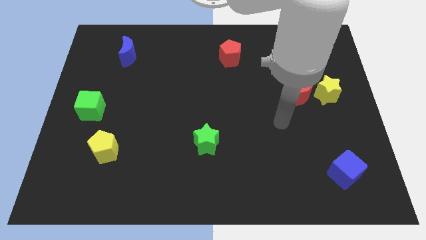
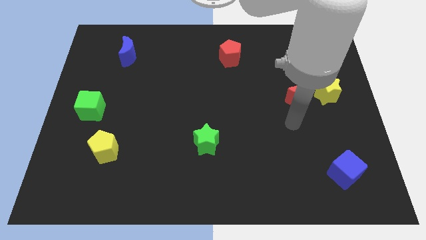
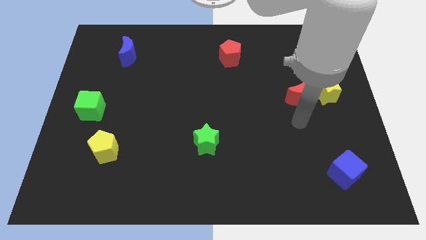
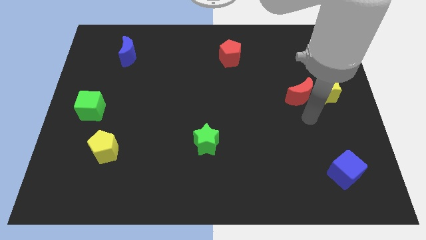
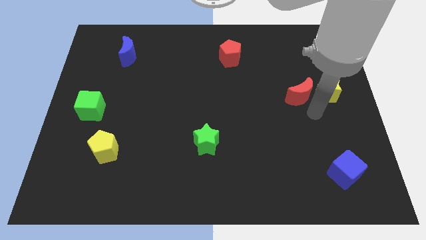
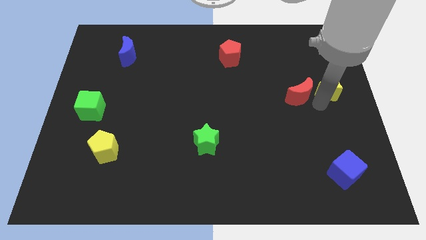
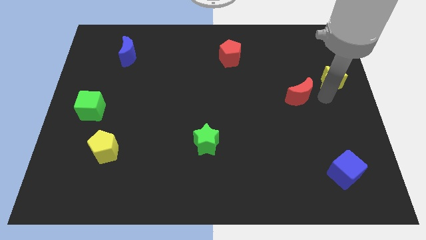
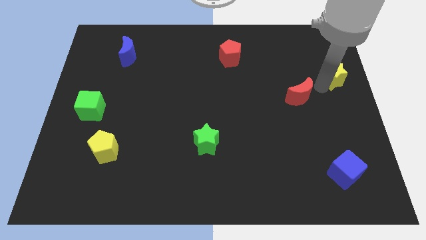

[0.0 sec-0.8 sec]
separate the red moon from the yellow star

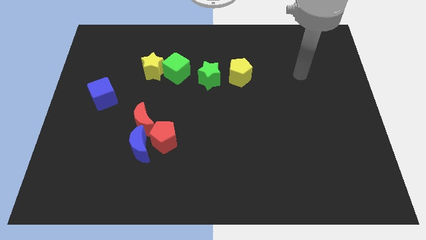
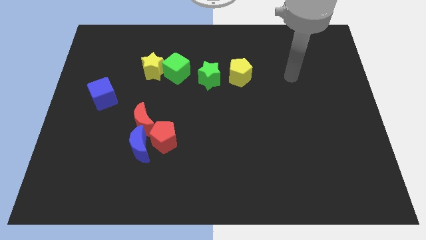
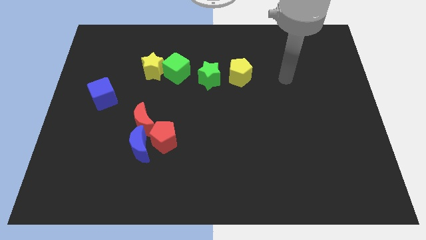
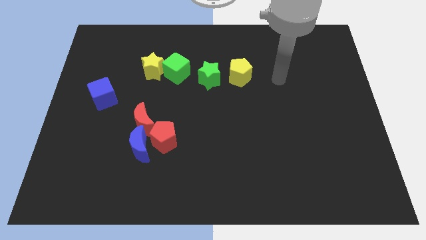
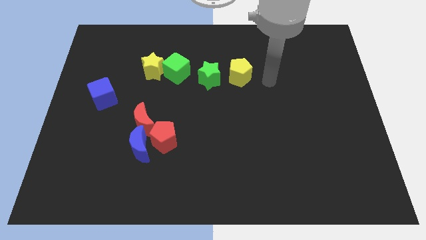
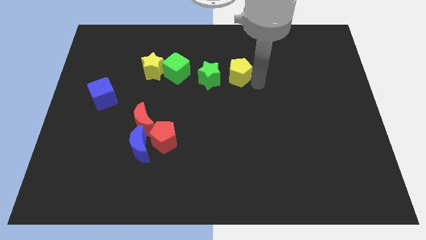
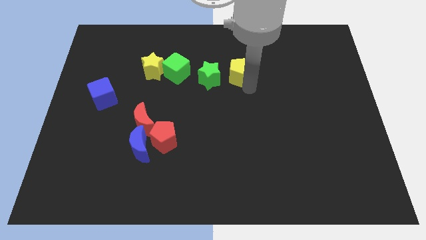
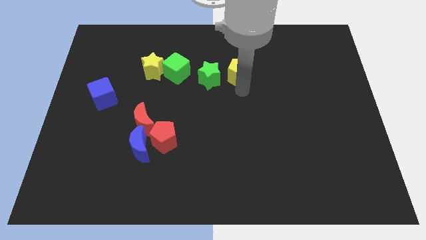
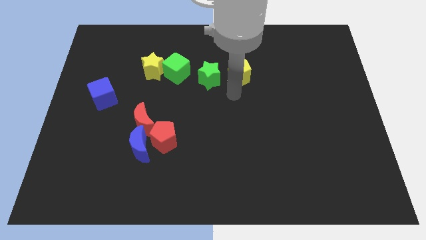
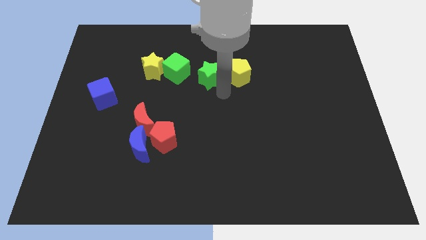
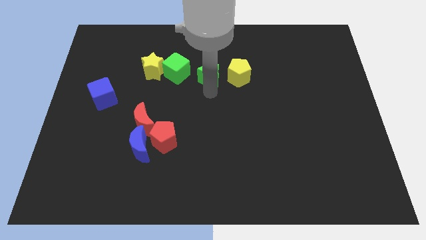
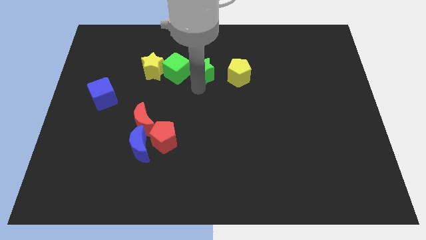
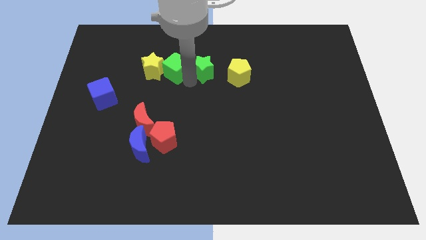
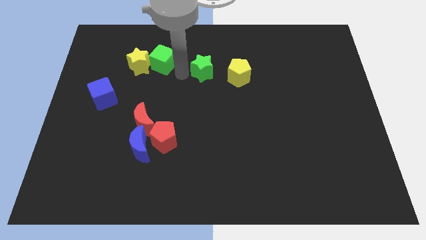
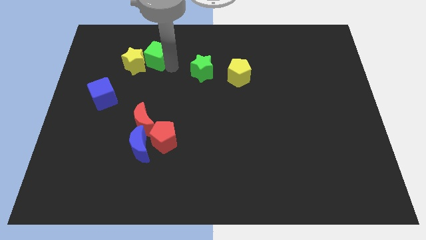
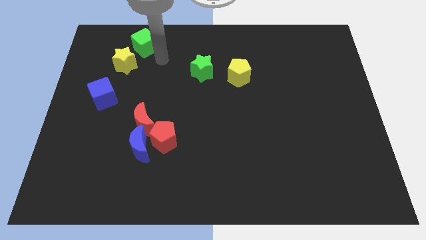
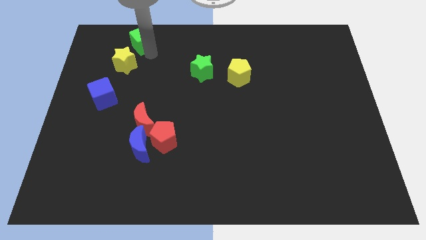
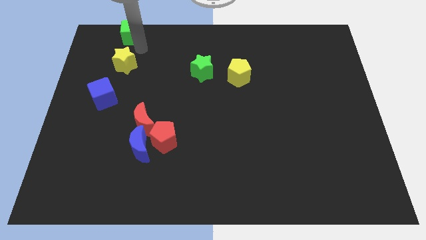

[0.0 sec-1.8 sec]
pull the yellow star apart from the green cube

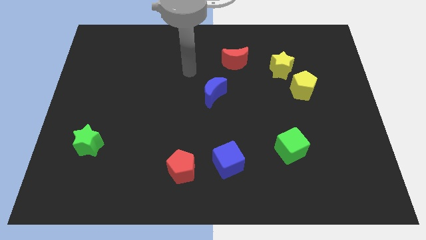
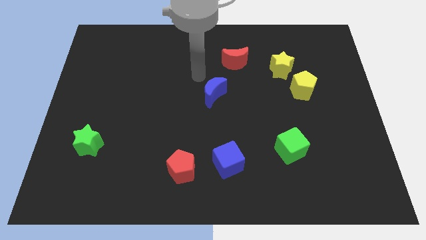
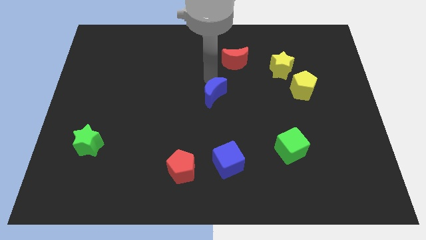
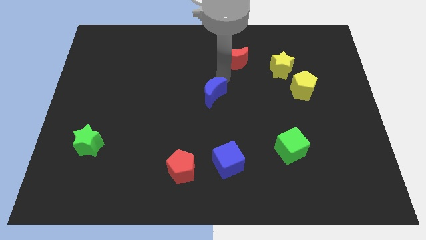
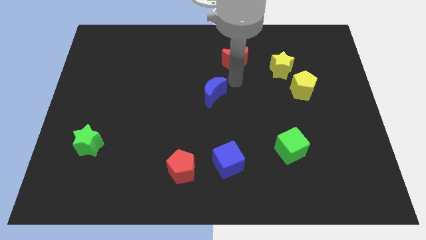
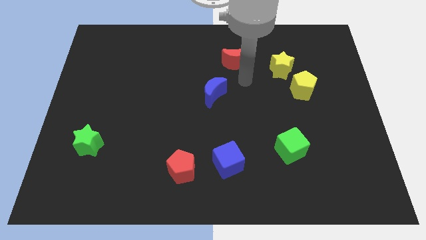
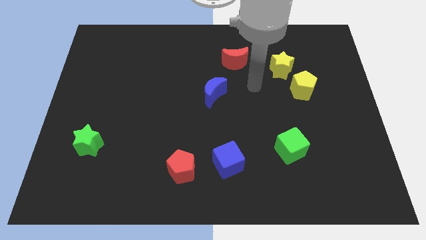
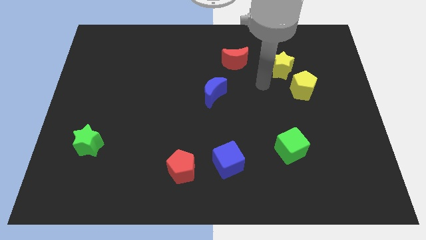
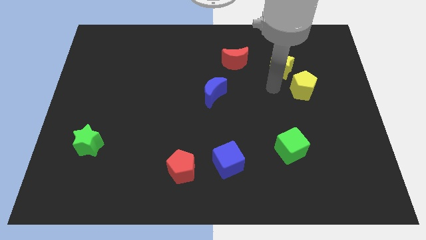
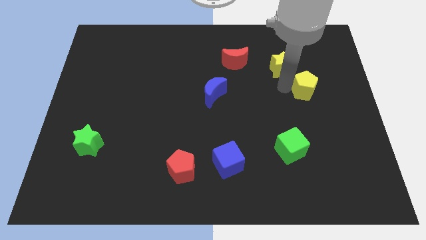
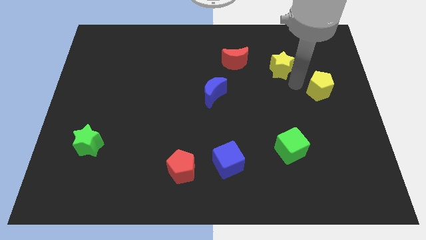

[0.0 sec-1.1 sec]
pull the yellow star apart from the yellow pentagon

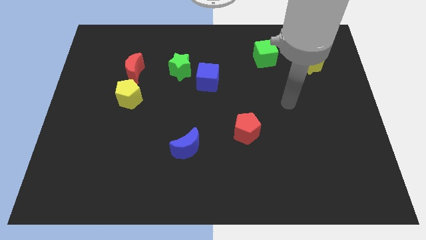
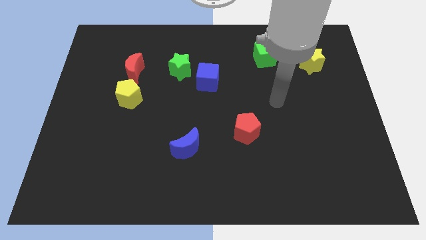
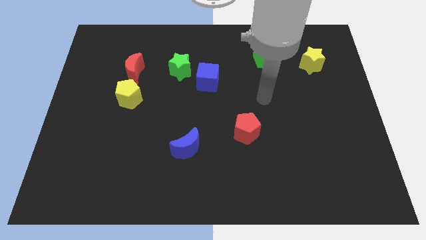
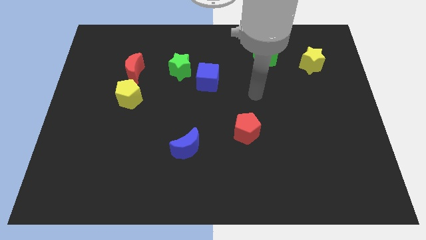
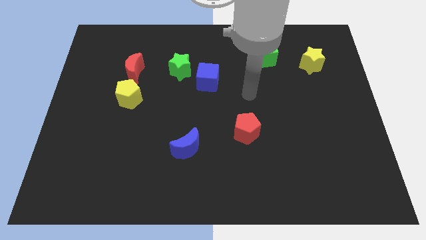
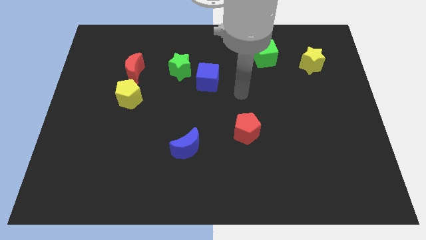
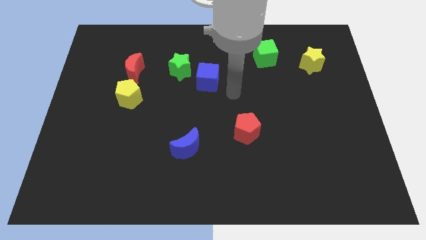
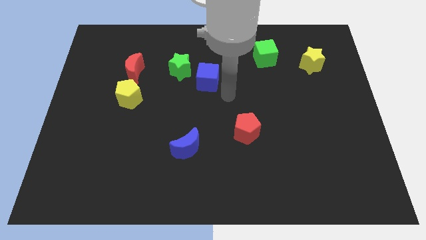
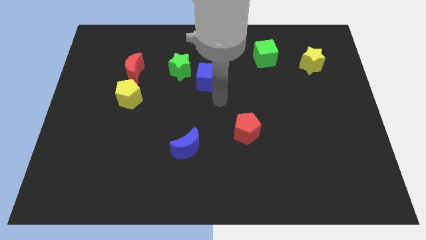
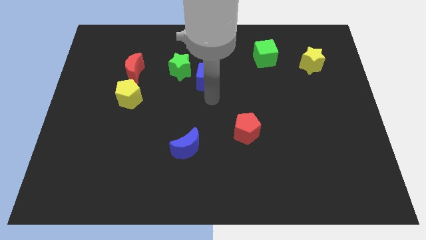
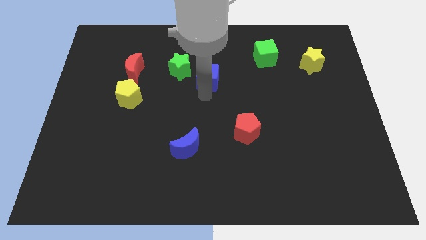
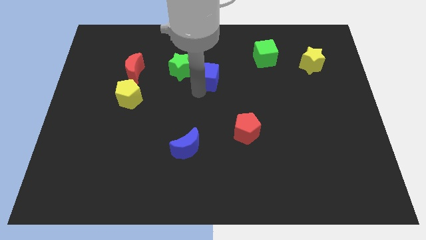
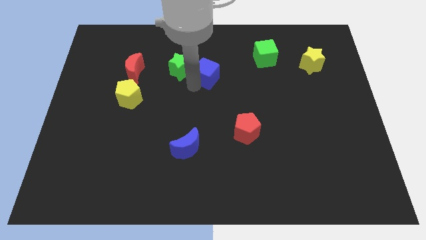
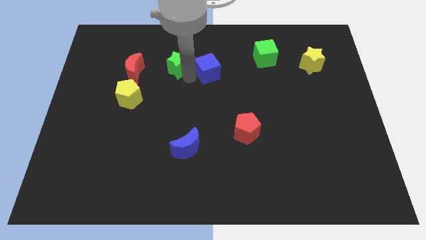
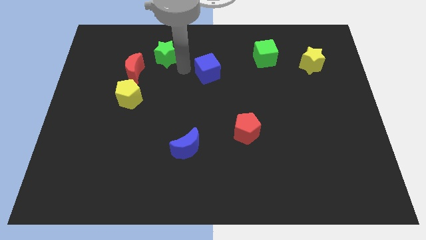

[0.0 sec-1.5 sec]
move the blue cube away from the green star

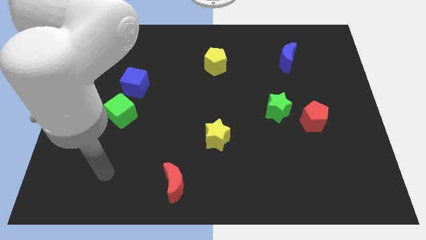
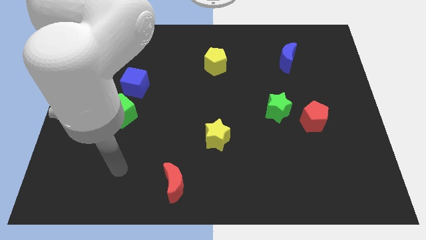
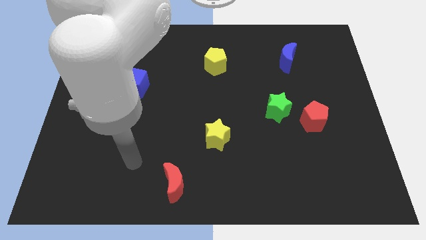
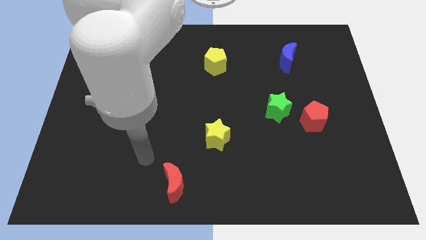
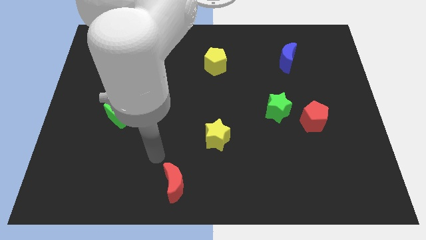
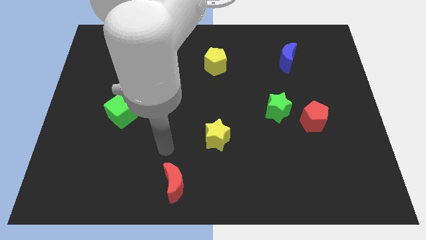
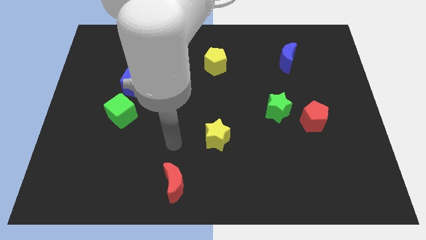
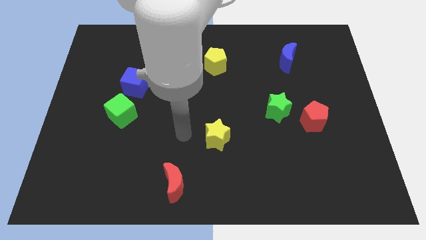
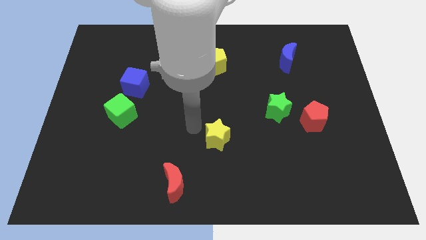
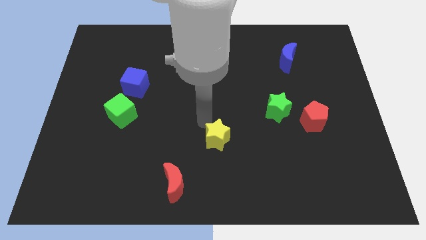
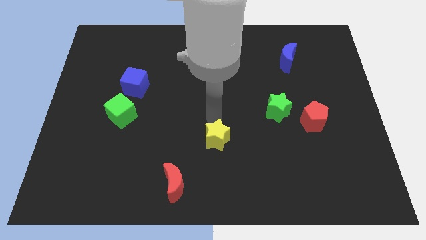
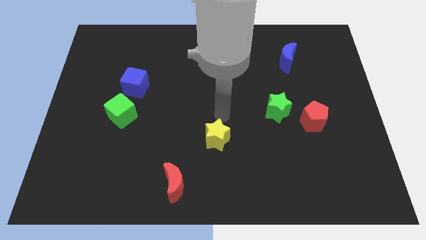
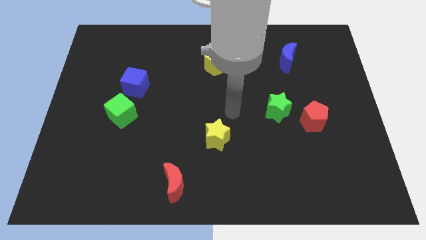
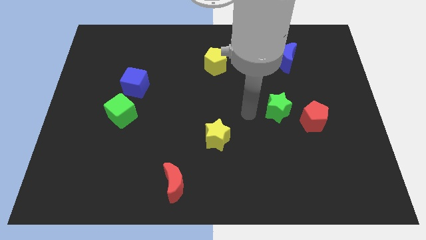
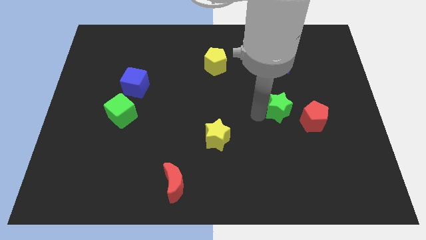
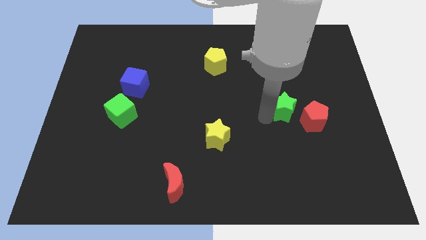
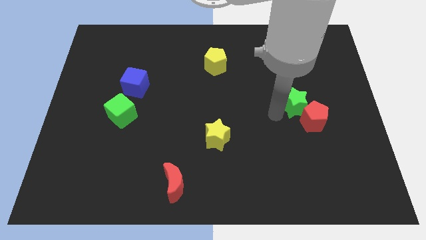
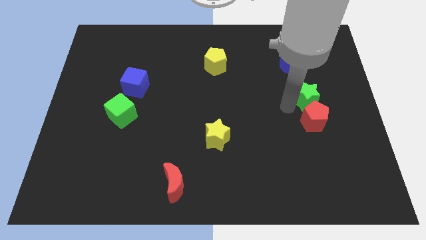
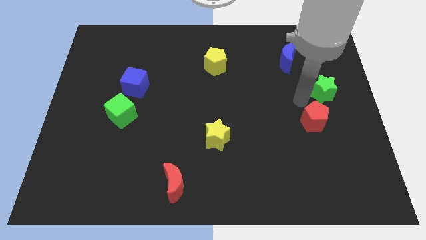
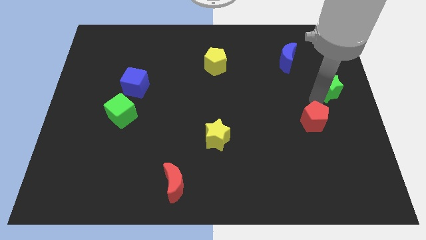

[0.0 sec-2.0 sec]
separate the red pentagon from the green star

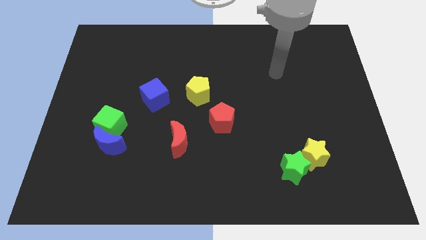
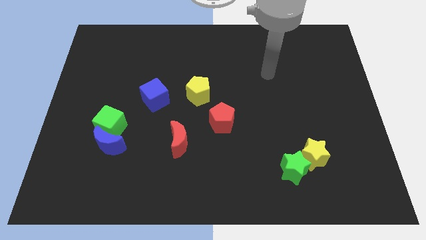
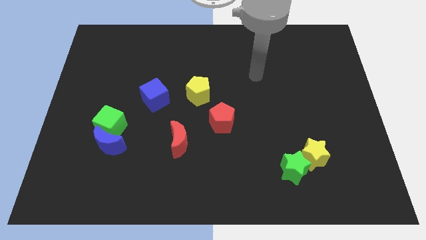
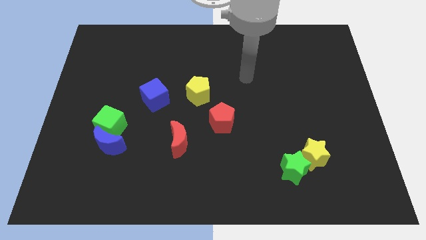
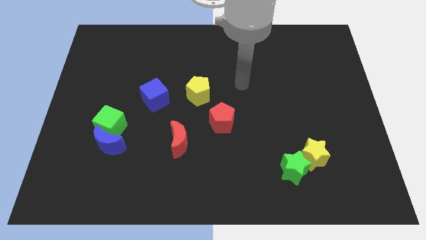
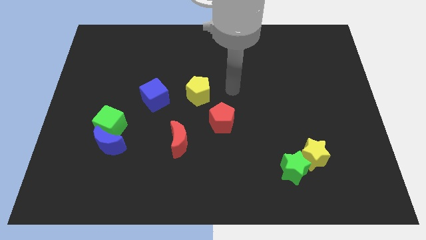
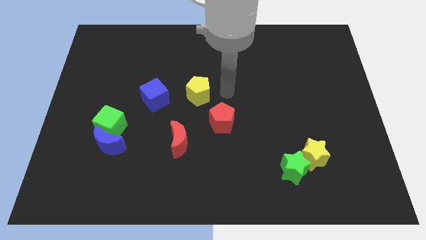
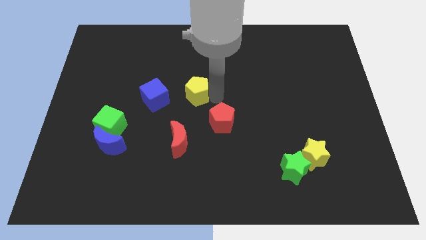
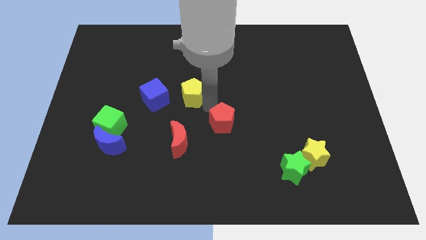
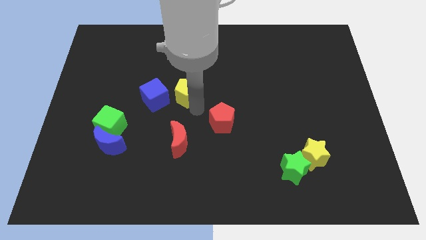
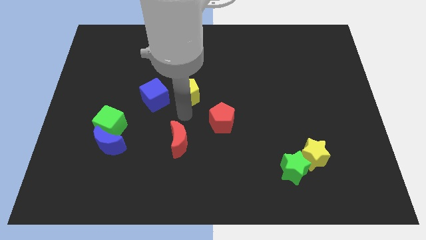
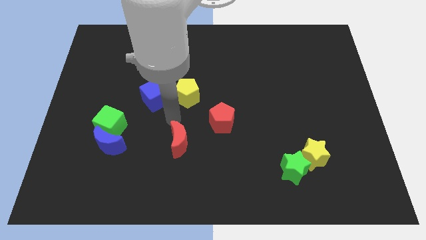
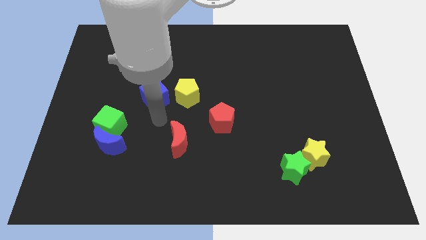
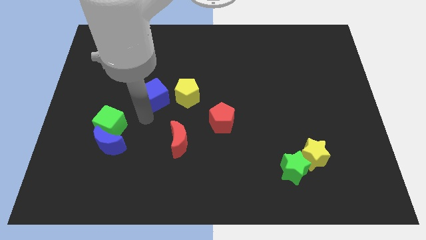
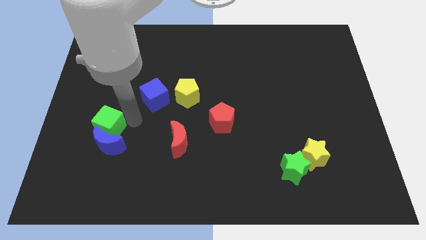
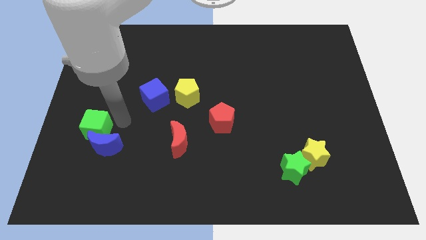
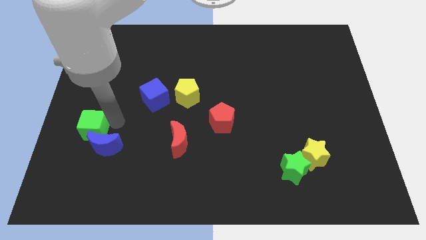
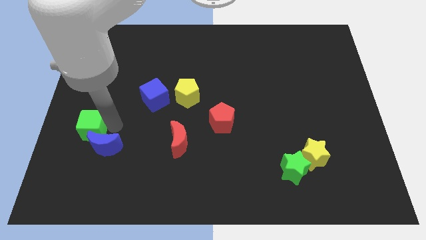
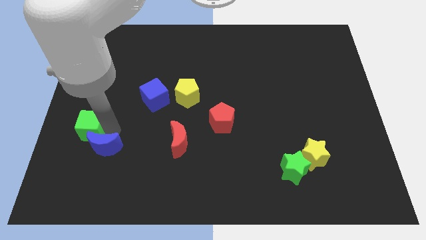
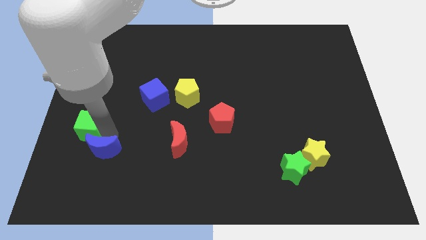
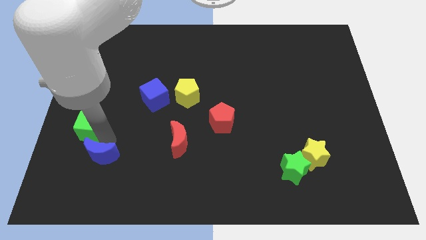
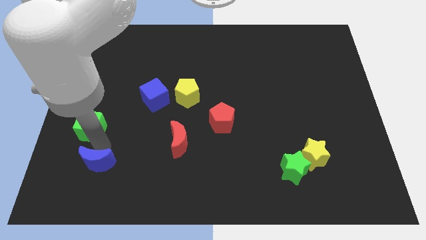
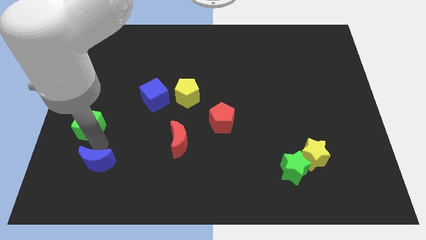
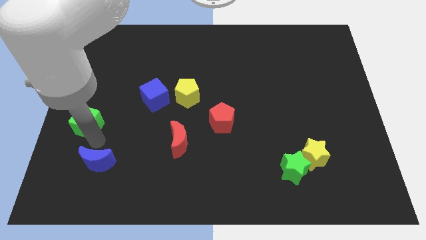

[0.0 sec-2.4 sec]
pull the blue moon apart from the green cube
